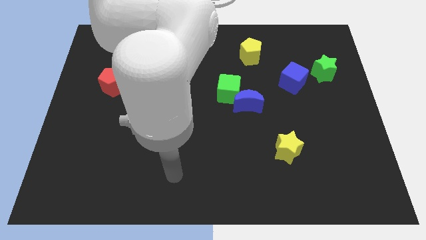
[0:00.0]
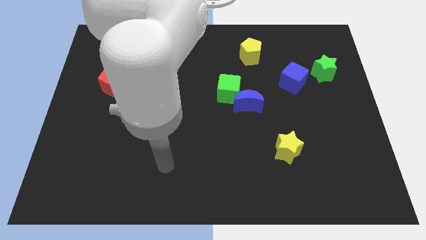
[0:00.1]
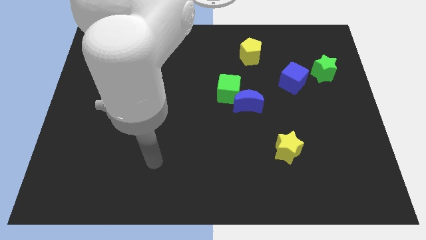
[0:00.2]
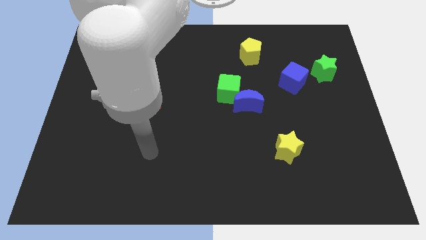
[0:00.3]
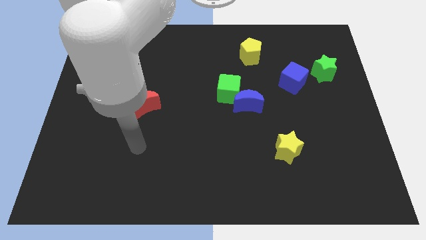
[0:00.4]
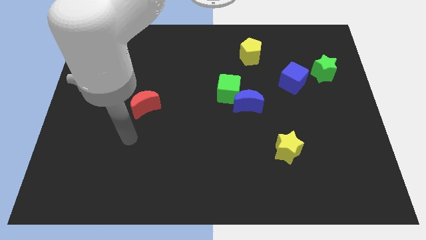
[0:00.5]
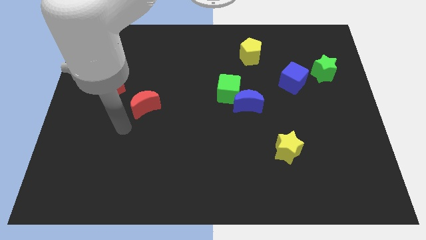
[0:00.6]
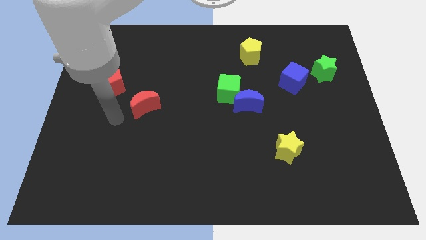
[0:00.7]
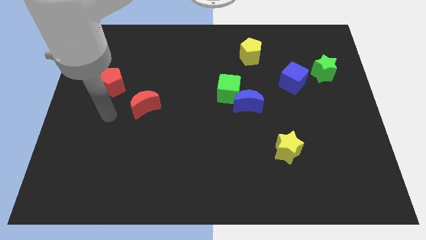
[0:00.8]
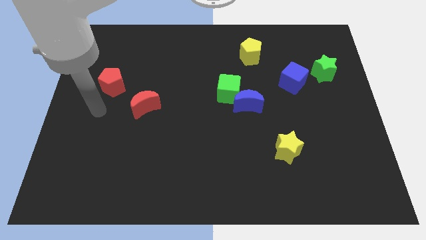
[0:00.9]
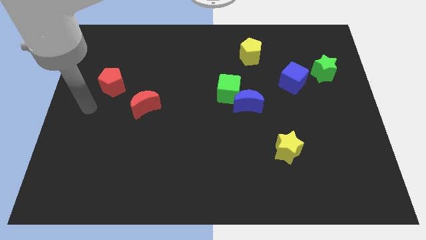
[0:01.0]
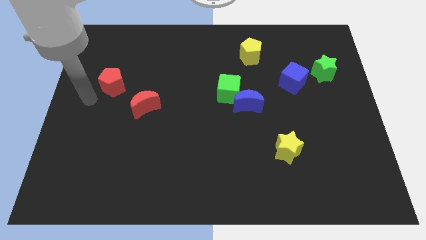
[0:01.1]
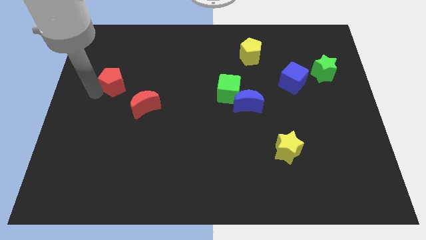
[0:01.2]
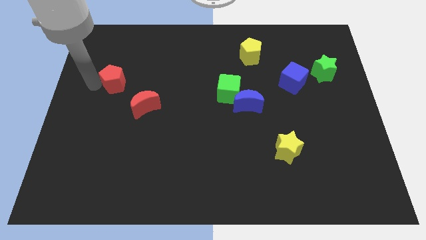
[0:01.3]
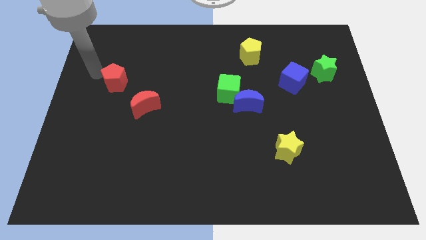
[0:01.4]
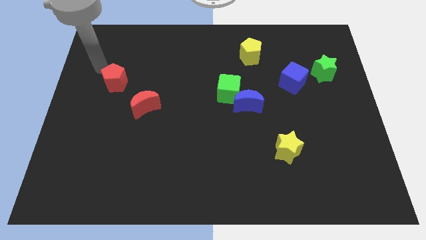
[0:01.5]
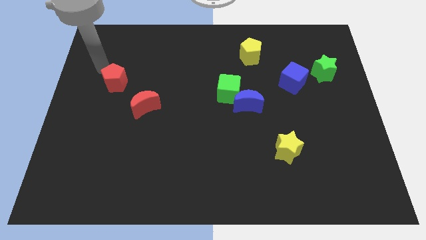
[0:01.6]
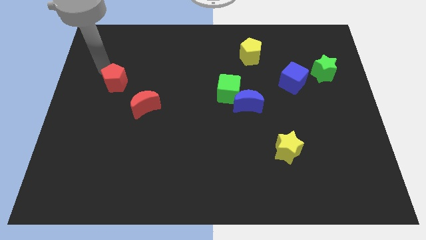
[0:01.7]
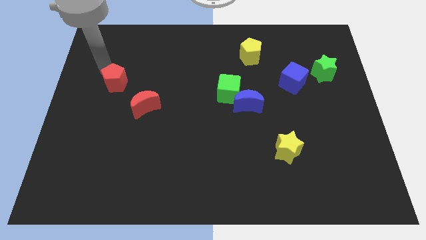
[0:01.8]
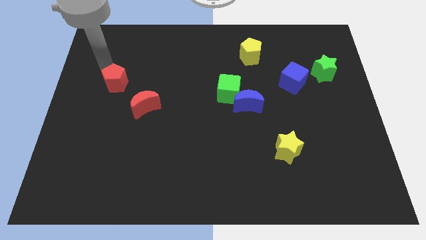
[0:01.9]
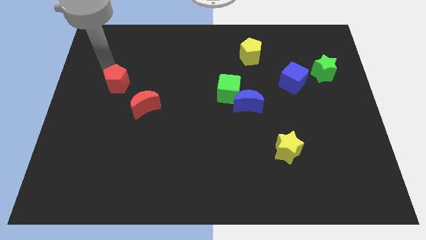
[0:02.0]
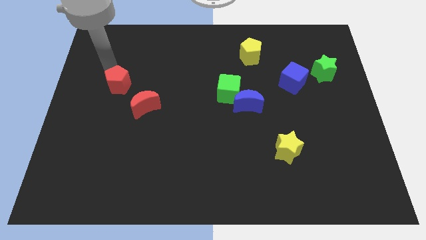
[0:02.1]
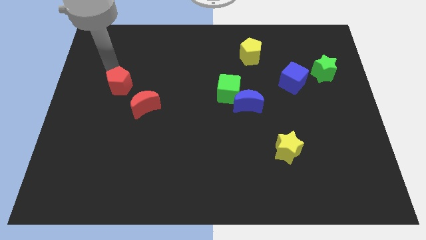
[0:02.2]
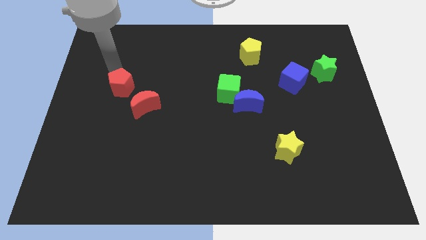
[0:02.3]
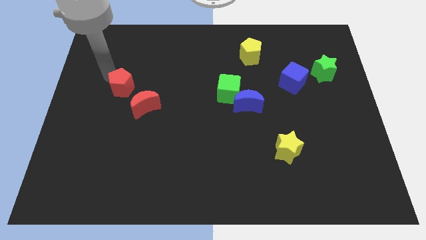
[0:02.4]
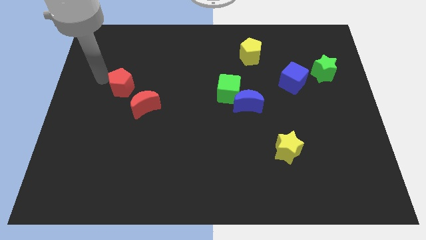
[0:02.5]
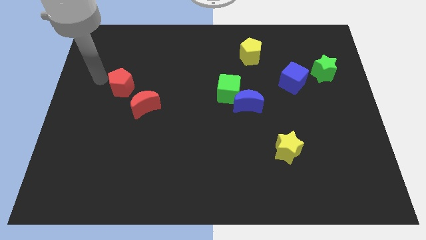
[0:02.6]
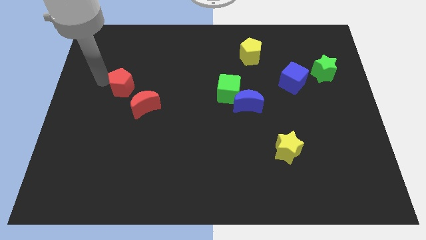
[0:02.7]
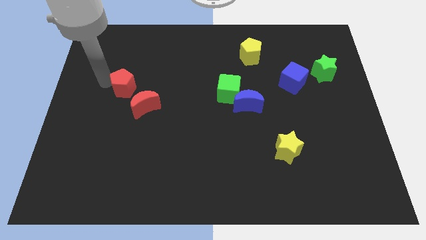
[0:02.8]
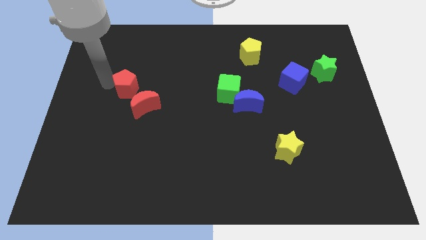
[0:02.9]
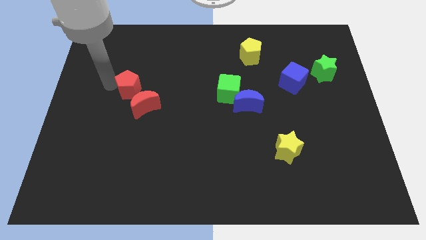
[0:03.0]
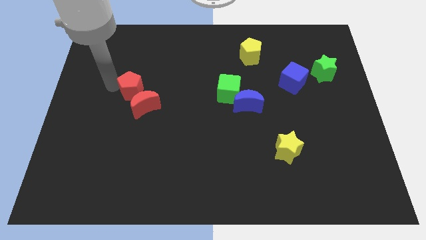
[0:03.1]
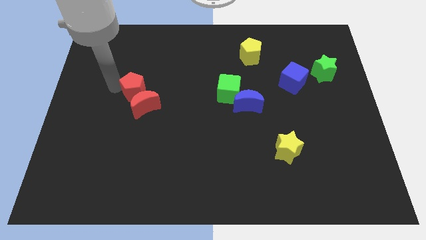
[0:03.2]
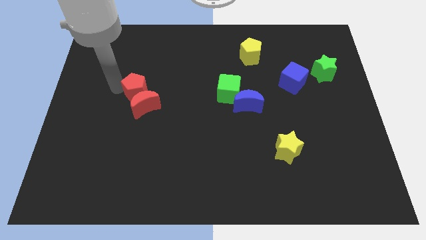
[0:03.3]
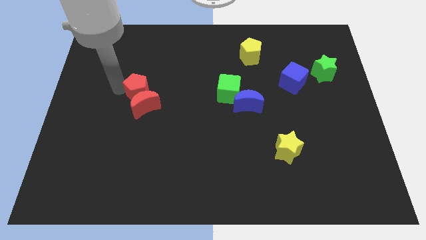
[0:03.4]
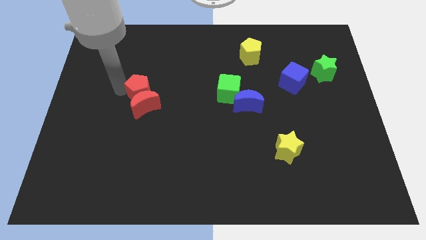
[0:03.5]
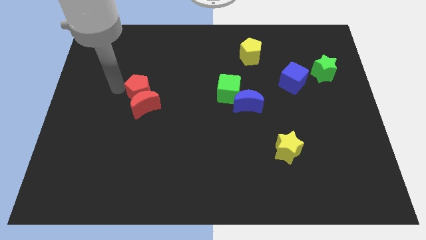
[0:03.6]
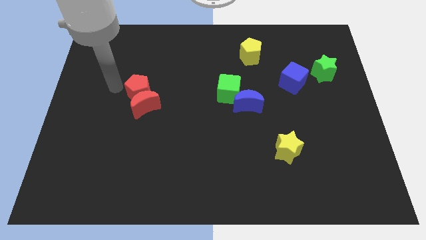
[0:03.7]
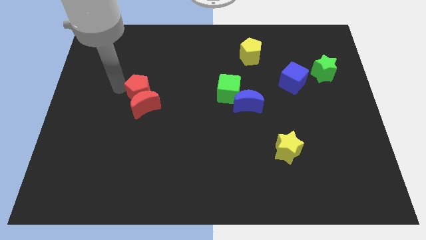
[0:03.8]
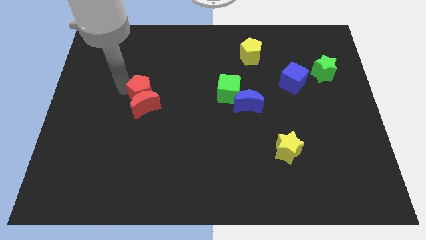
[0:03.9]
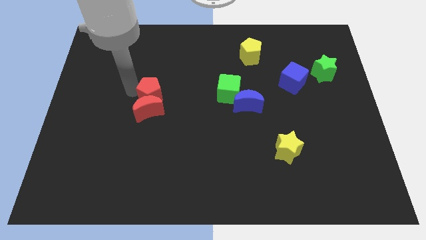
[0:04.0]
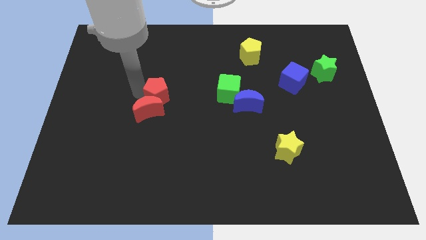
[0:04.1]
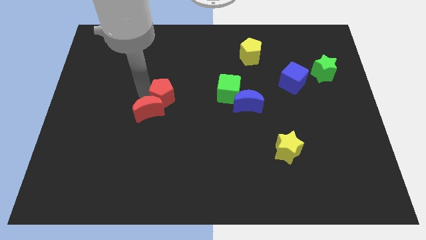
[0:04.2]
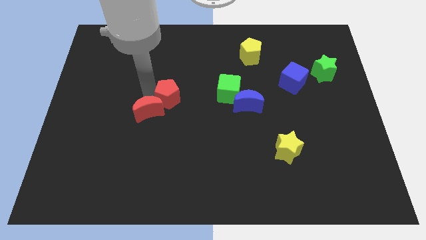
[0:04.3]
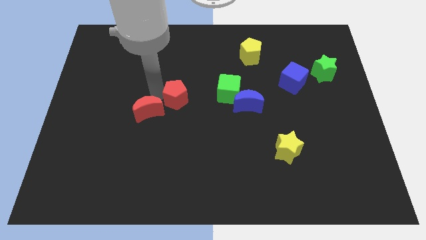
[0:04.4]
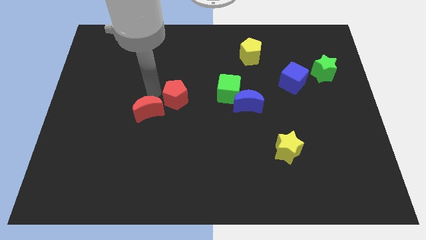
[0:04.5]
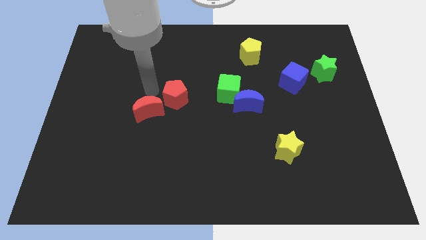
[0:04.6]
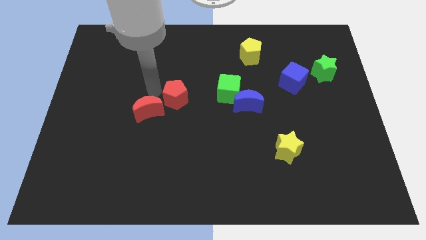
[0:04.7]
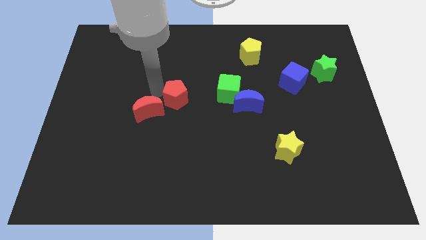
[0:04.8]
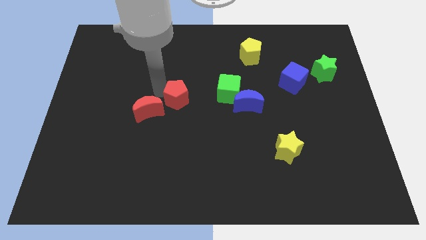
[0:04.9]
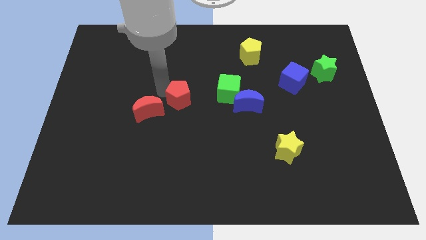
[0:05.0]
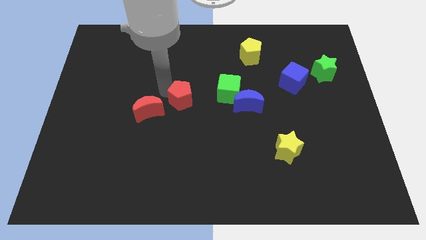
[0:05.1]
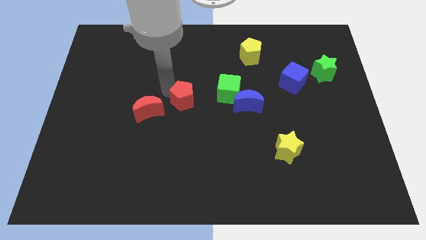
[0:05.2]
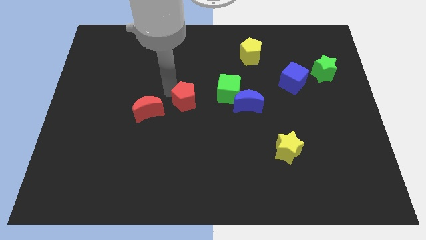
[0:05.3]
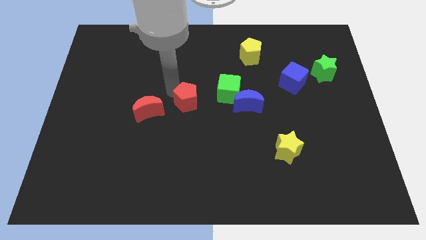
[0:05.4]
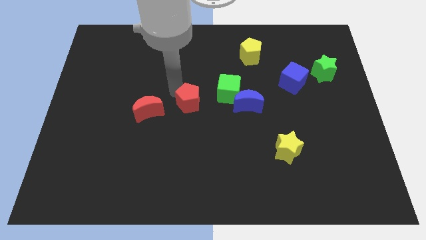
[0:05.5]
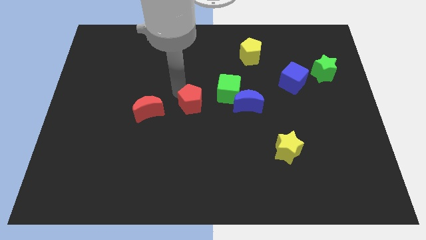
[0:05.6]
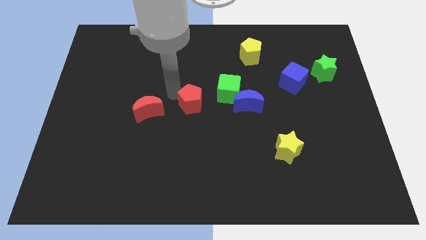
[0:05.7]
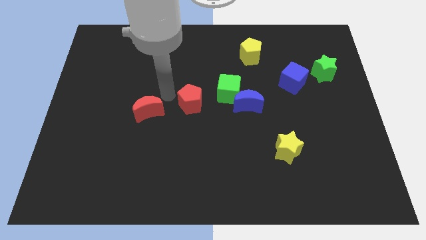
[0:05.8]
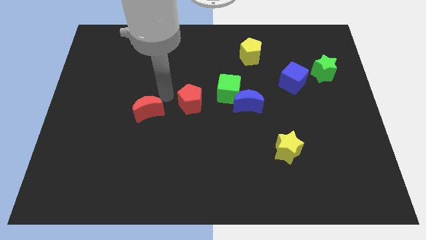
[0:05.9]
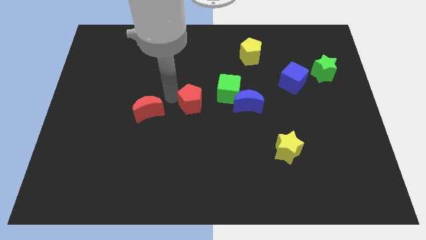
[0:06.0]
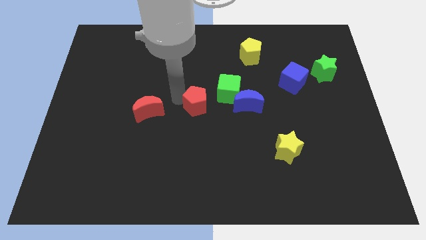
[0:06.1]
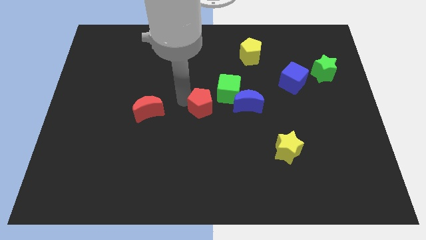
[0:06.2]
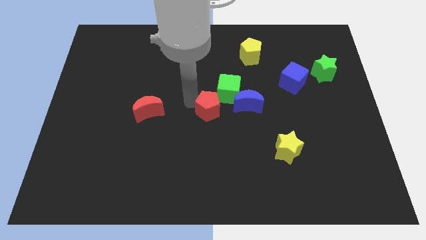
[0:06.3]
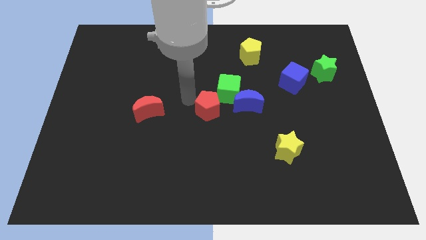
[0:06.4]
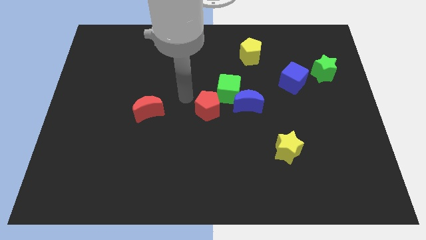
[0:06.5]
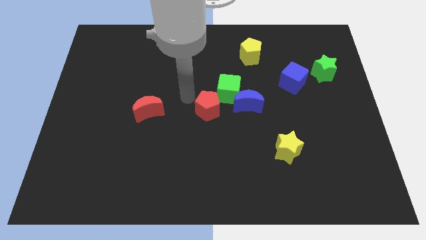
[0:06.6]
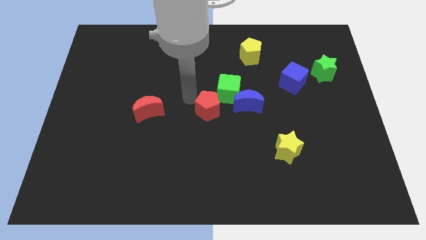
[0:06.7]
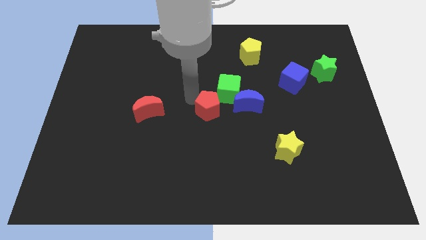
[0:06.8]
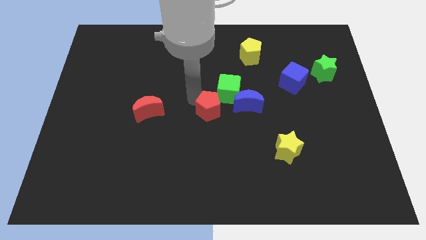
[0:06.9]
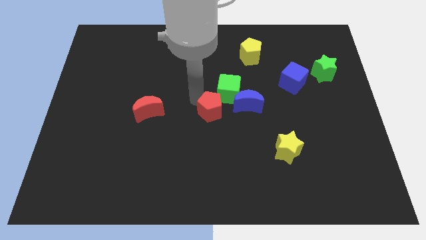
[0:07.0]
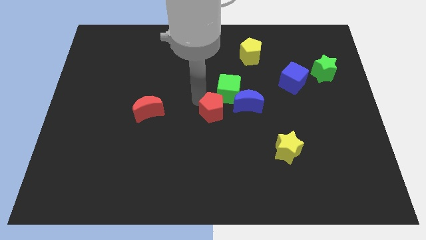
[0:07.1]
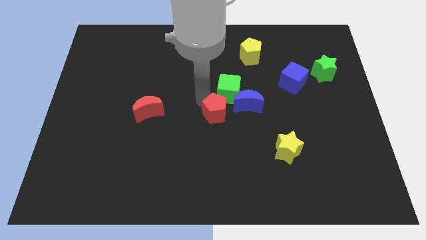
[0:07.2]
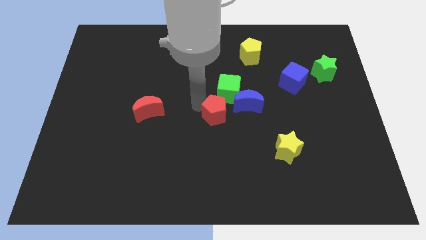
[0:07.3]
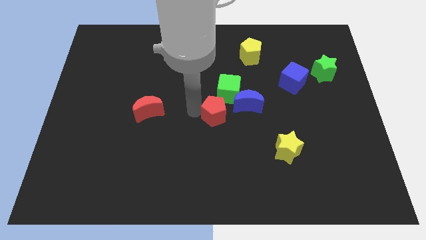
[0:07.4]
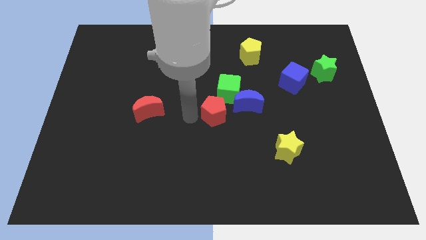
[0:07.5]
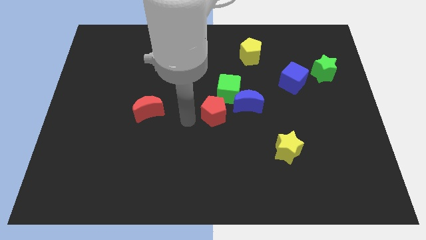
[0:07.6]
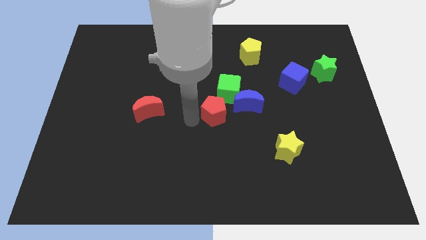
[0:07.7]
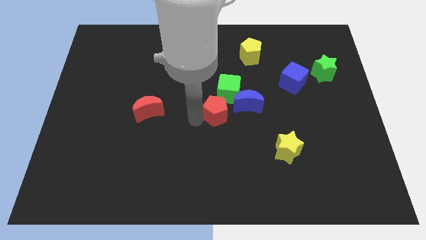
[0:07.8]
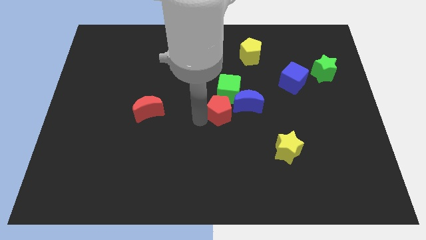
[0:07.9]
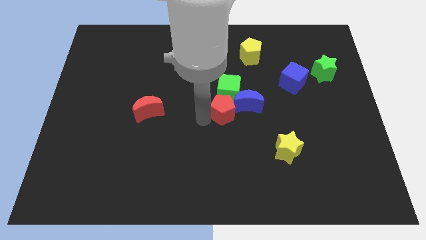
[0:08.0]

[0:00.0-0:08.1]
put the red pentagon towards the blue moon
